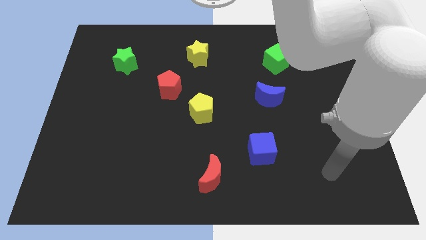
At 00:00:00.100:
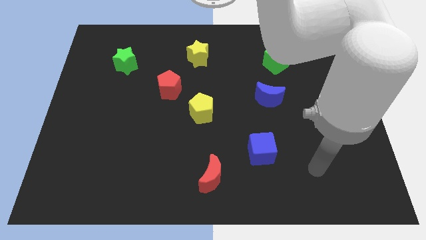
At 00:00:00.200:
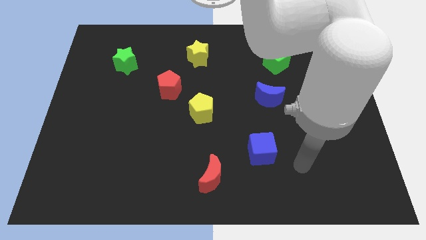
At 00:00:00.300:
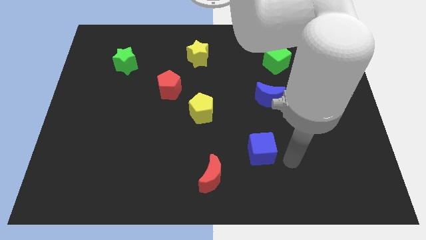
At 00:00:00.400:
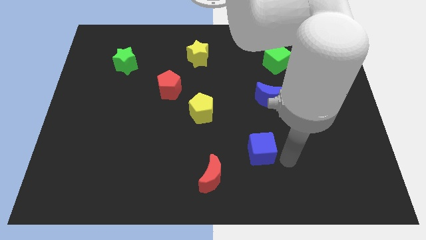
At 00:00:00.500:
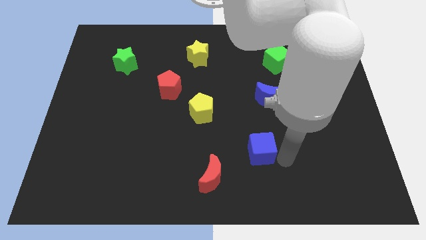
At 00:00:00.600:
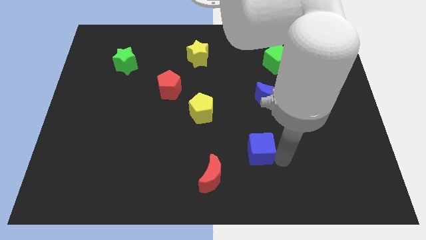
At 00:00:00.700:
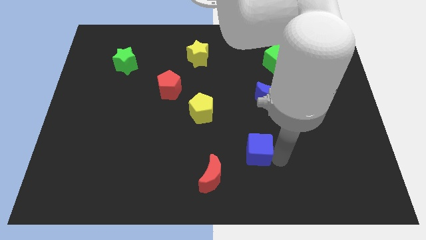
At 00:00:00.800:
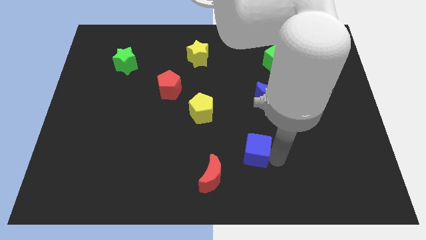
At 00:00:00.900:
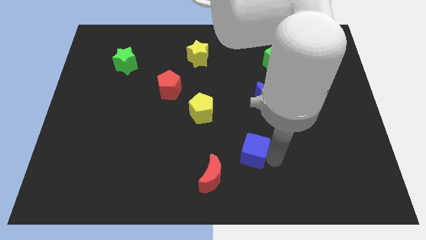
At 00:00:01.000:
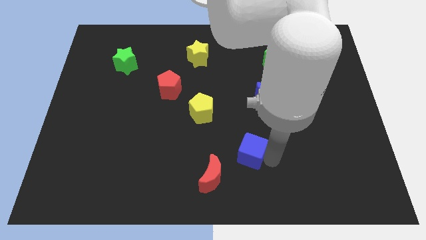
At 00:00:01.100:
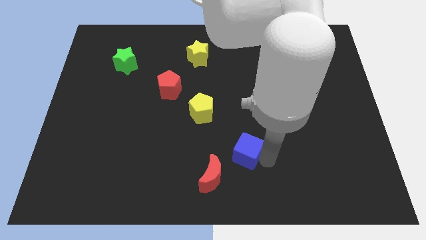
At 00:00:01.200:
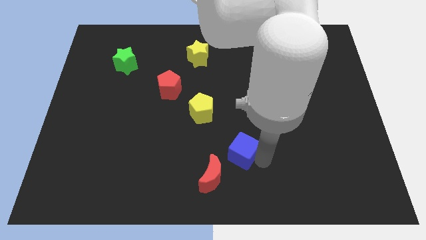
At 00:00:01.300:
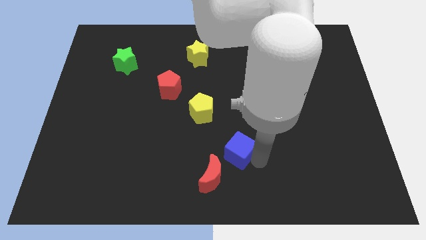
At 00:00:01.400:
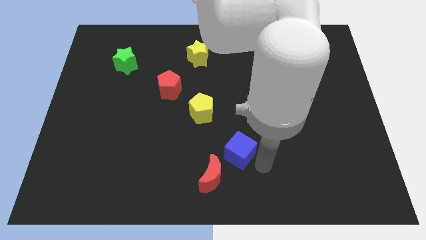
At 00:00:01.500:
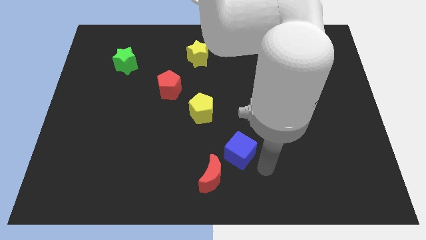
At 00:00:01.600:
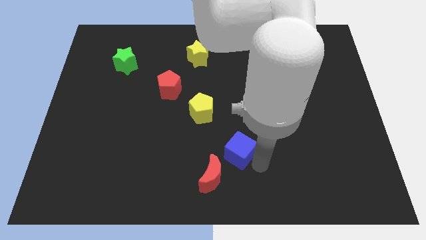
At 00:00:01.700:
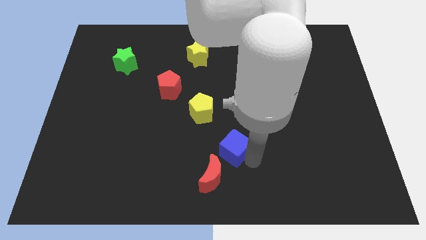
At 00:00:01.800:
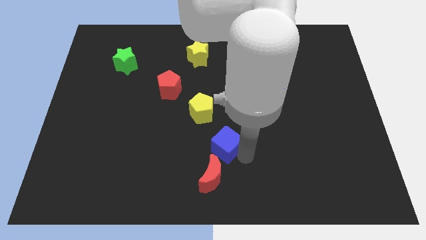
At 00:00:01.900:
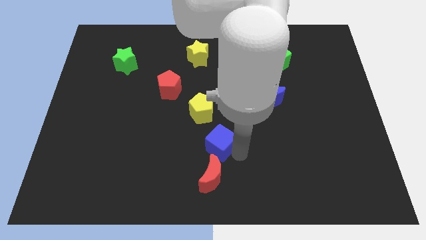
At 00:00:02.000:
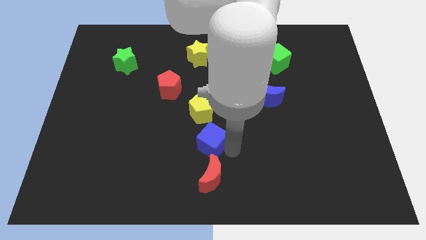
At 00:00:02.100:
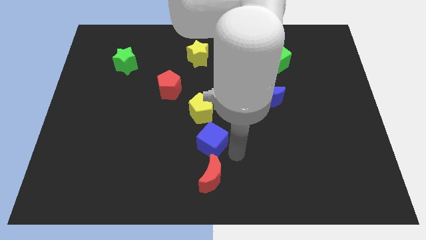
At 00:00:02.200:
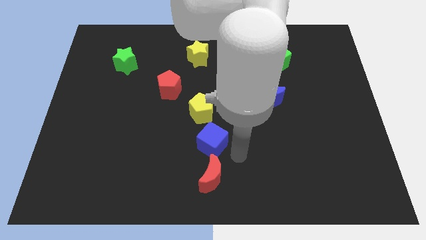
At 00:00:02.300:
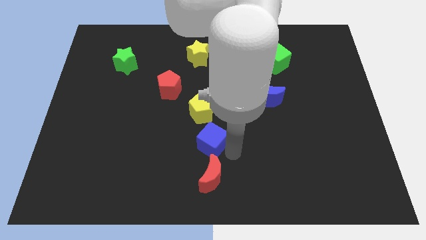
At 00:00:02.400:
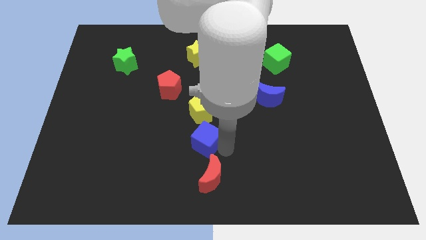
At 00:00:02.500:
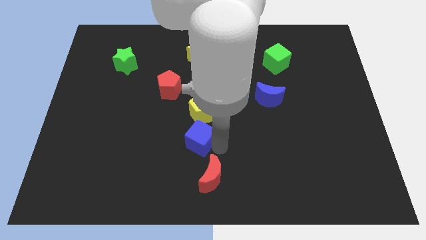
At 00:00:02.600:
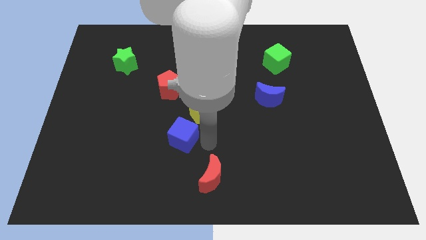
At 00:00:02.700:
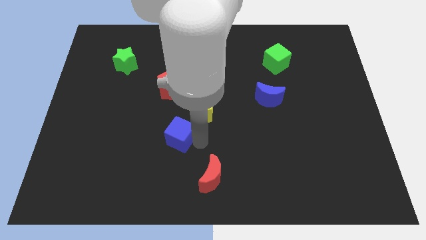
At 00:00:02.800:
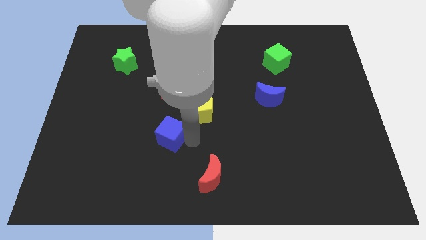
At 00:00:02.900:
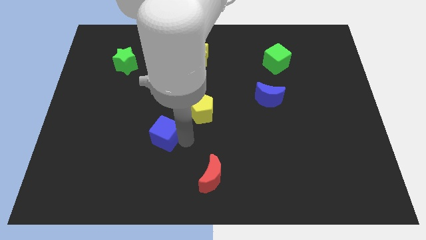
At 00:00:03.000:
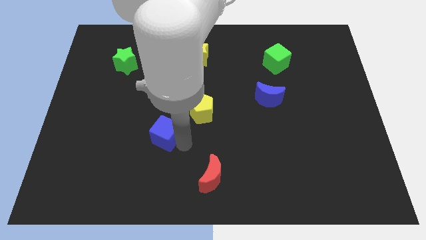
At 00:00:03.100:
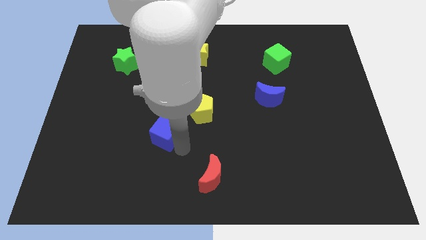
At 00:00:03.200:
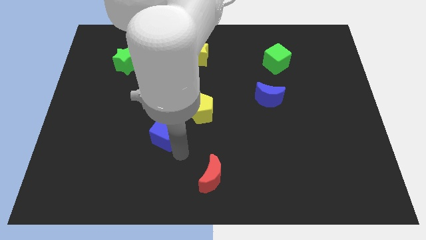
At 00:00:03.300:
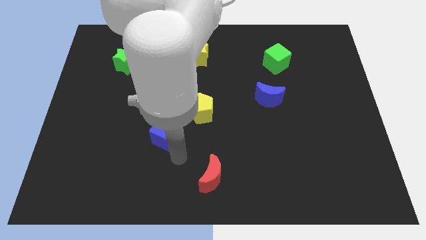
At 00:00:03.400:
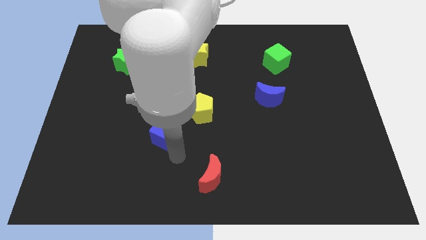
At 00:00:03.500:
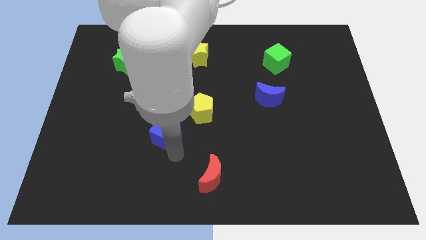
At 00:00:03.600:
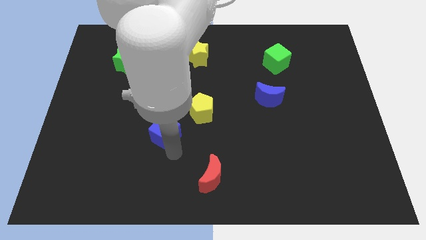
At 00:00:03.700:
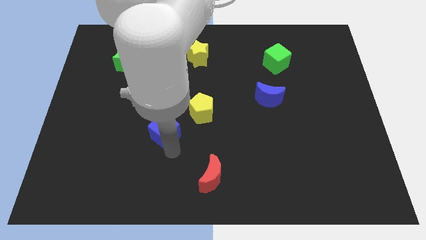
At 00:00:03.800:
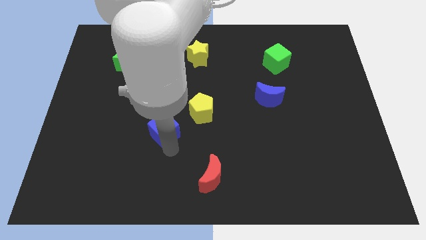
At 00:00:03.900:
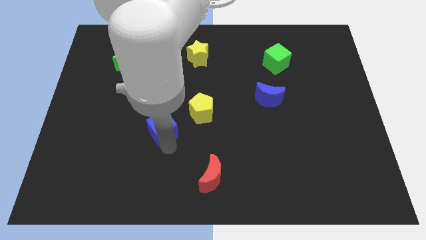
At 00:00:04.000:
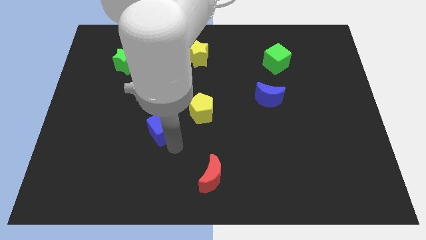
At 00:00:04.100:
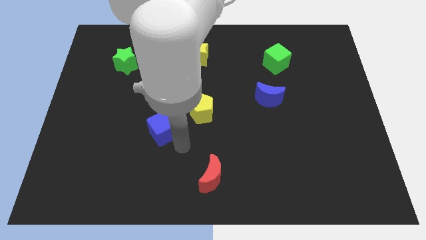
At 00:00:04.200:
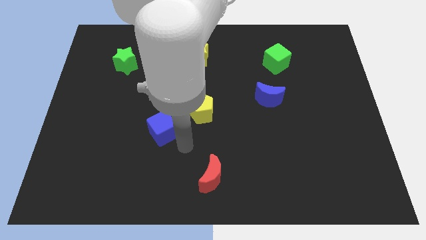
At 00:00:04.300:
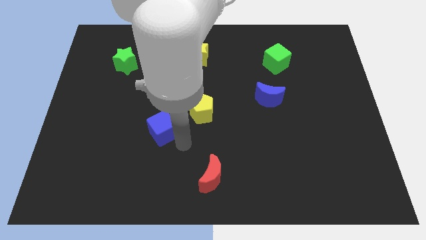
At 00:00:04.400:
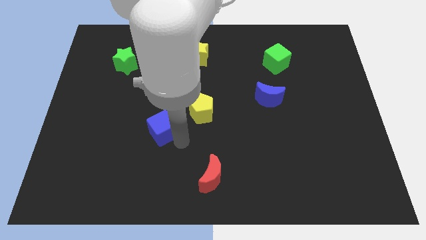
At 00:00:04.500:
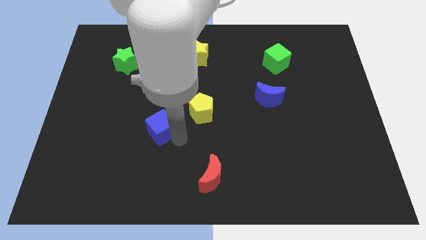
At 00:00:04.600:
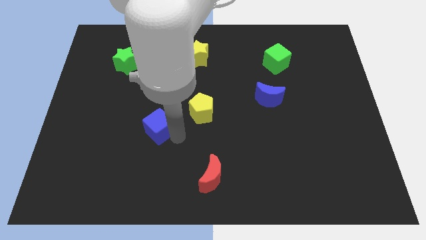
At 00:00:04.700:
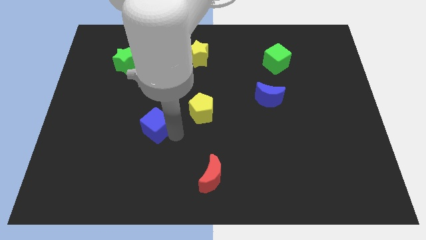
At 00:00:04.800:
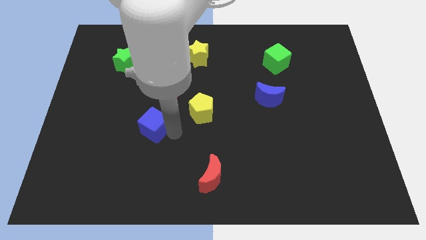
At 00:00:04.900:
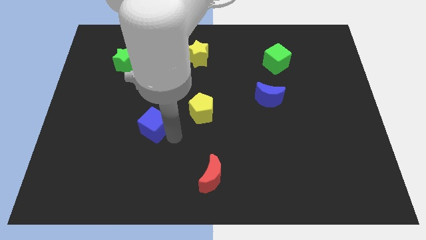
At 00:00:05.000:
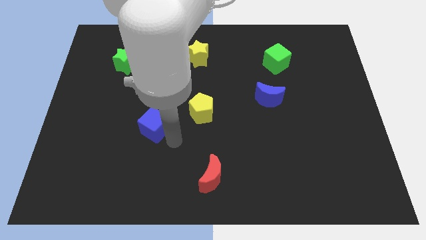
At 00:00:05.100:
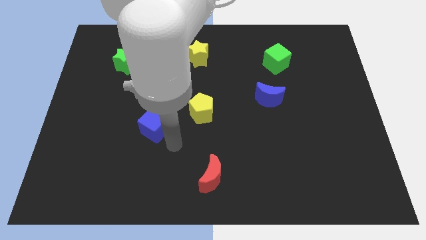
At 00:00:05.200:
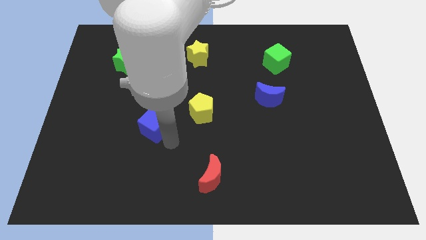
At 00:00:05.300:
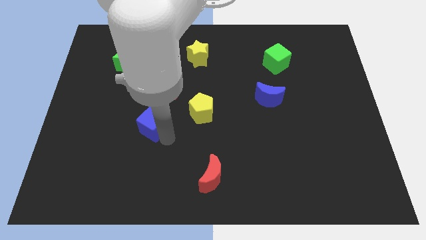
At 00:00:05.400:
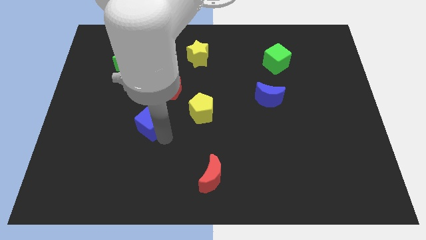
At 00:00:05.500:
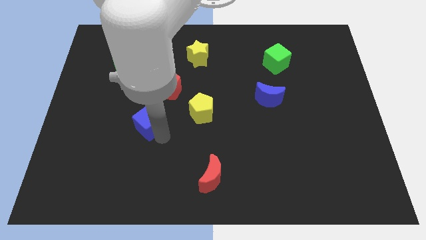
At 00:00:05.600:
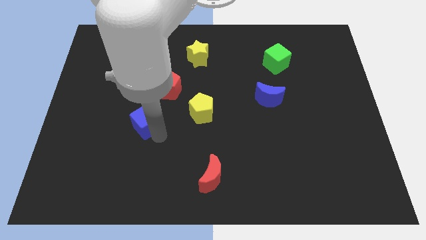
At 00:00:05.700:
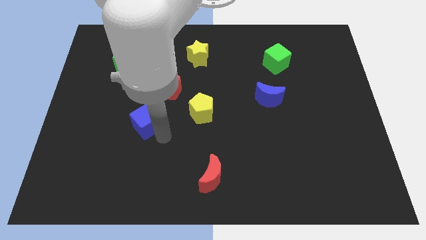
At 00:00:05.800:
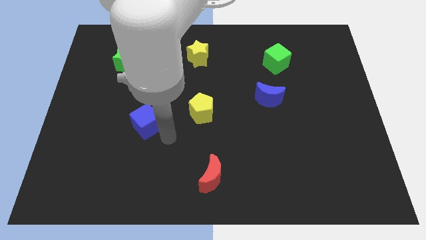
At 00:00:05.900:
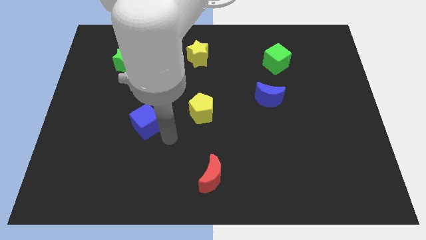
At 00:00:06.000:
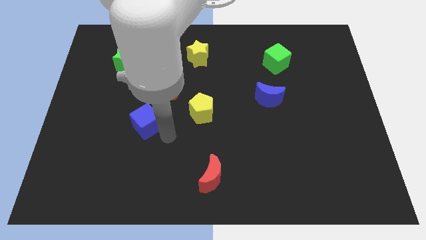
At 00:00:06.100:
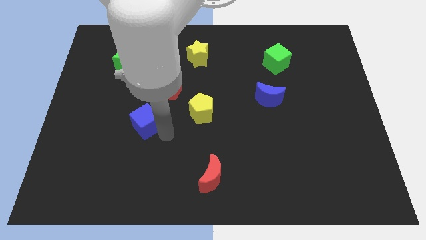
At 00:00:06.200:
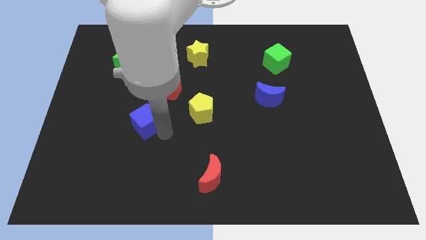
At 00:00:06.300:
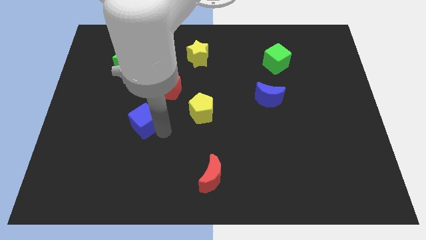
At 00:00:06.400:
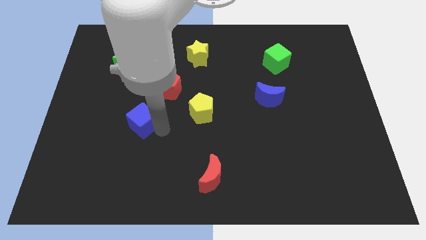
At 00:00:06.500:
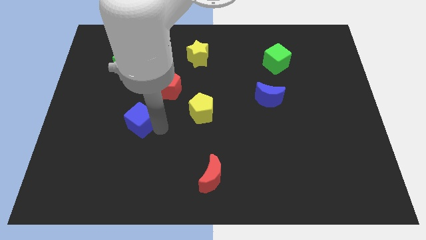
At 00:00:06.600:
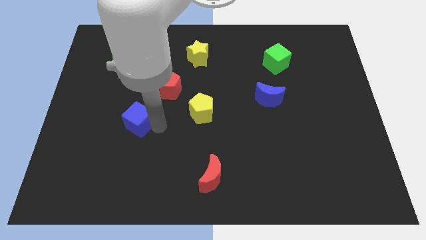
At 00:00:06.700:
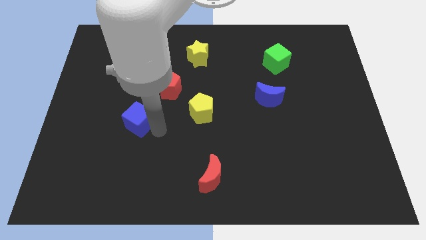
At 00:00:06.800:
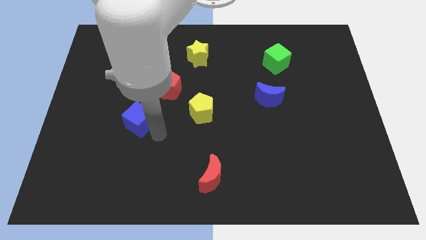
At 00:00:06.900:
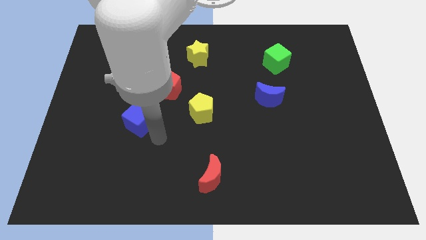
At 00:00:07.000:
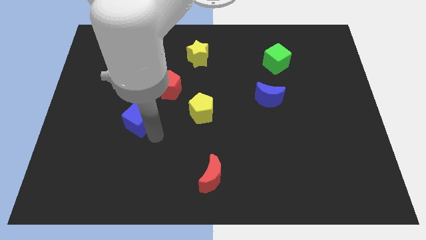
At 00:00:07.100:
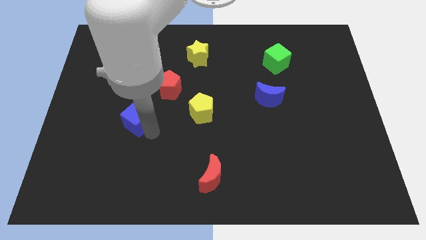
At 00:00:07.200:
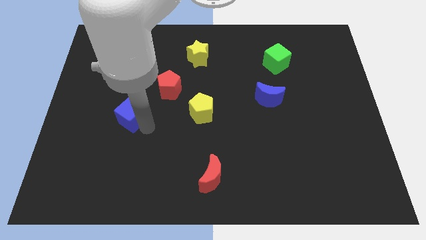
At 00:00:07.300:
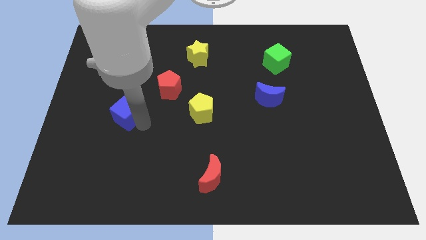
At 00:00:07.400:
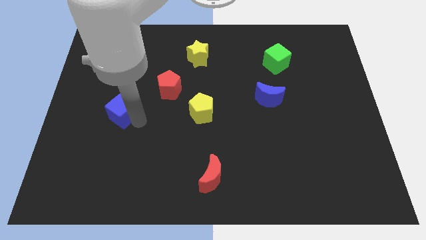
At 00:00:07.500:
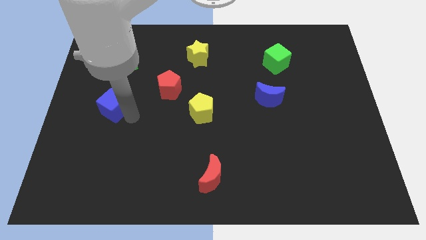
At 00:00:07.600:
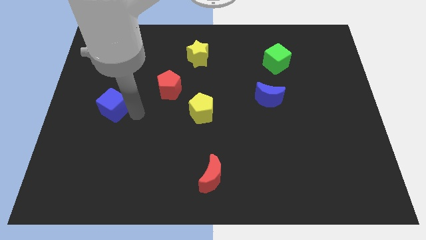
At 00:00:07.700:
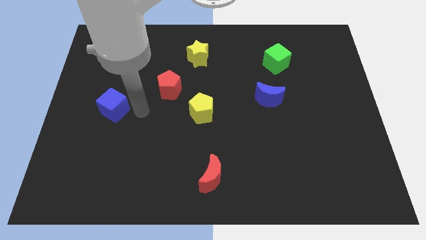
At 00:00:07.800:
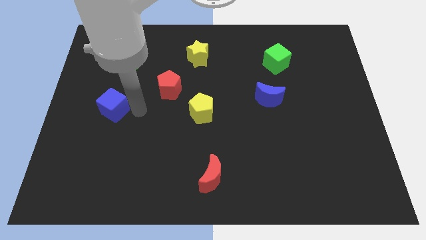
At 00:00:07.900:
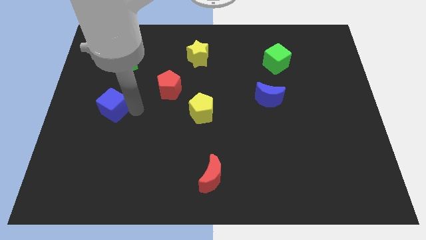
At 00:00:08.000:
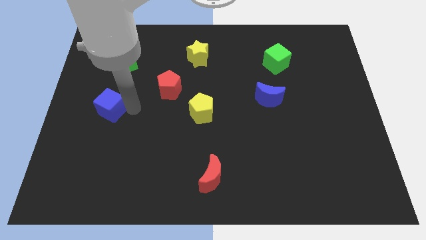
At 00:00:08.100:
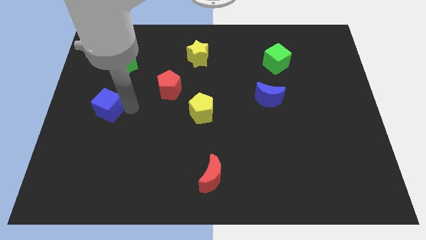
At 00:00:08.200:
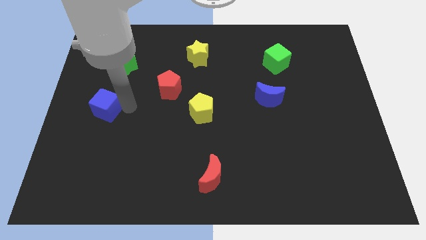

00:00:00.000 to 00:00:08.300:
push the blue cube to the left side
